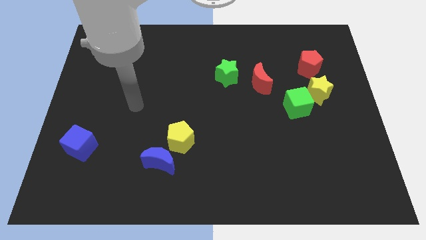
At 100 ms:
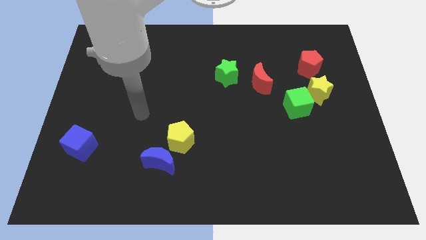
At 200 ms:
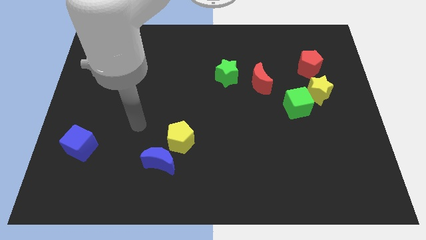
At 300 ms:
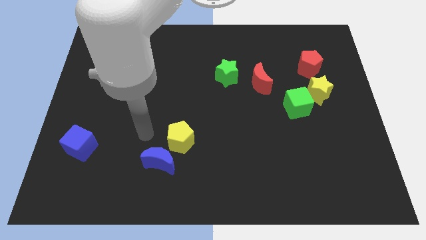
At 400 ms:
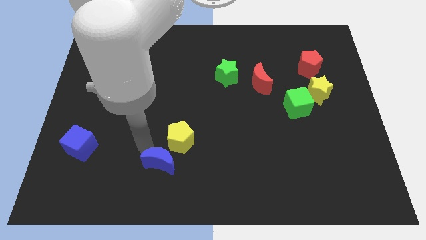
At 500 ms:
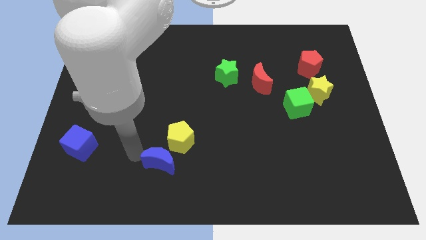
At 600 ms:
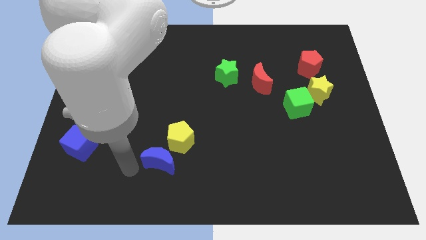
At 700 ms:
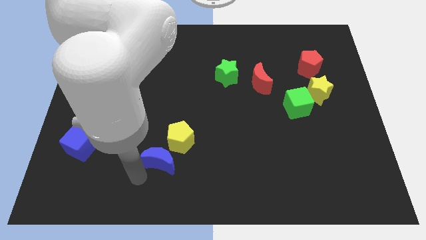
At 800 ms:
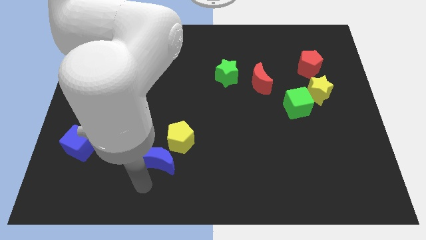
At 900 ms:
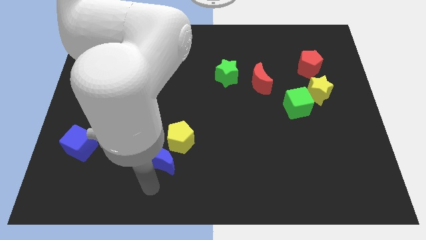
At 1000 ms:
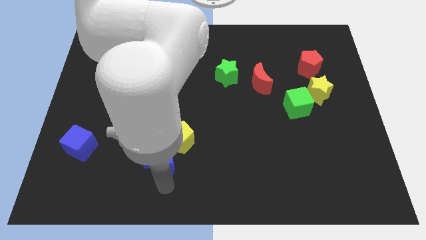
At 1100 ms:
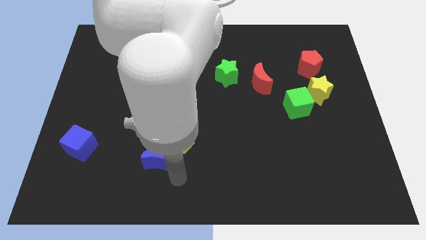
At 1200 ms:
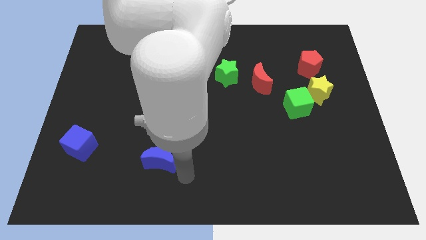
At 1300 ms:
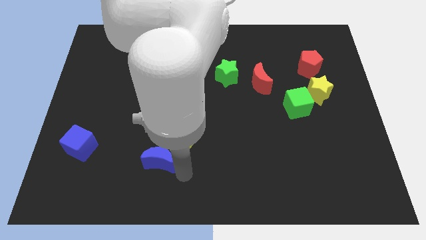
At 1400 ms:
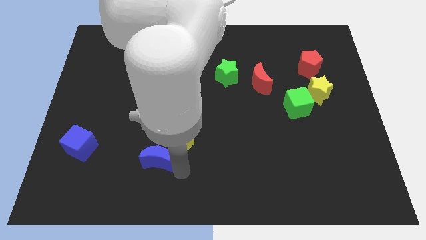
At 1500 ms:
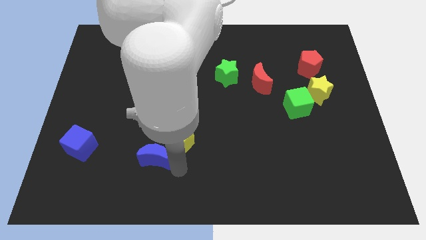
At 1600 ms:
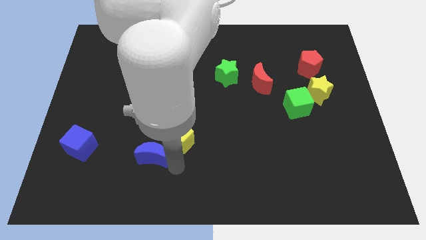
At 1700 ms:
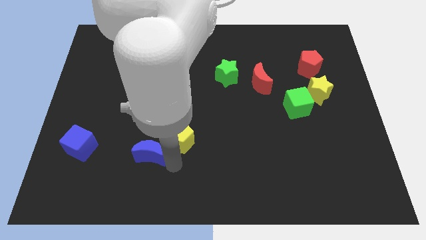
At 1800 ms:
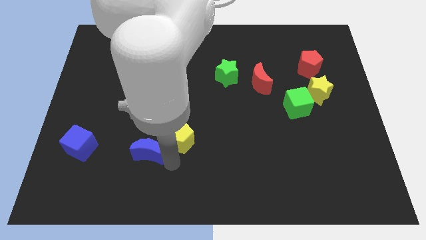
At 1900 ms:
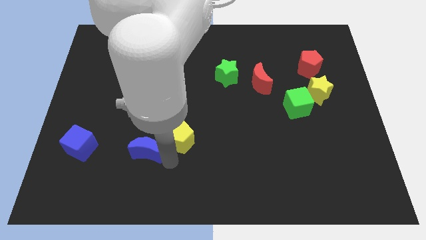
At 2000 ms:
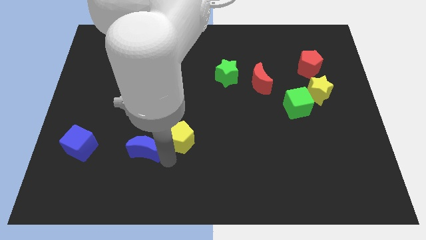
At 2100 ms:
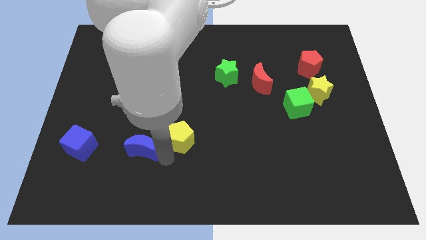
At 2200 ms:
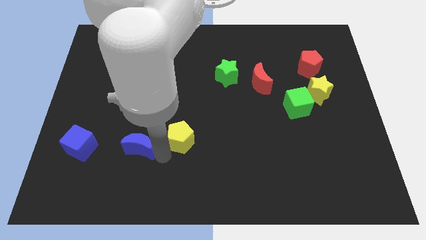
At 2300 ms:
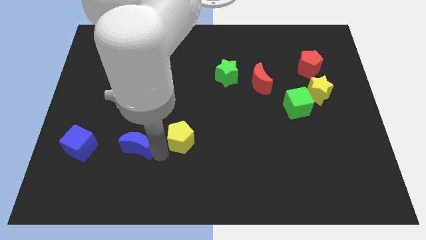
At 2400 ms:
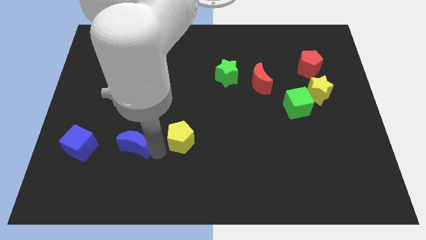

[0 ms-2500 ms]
slide the blue moon a little bit up and to the left

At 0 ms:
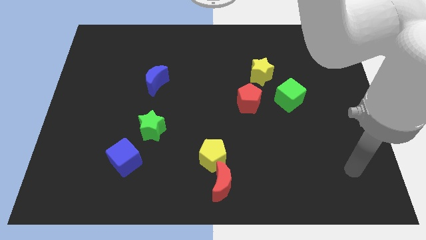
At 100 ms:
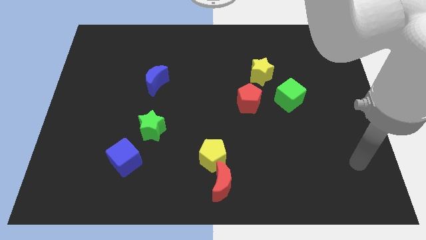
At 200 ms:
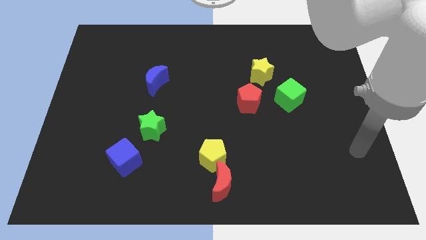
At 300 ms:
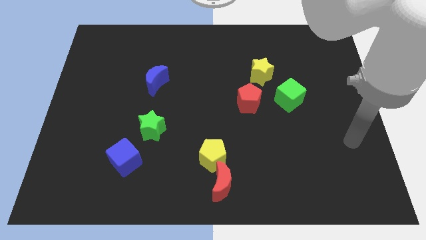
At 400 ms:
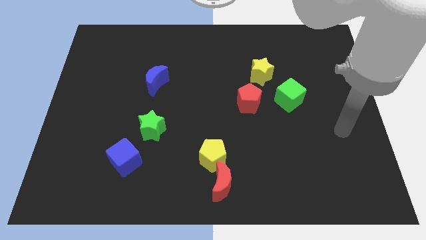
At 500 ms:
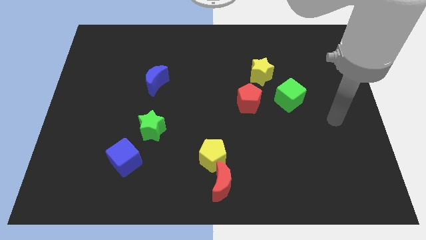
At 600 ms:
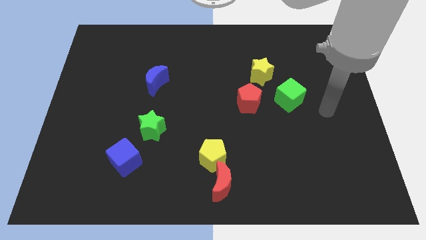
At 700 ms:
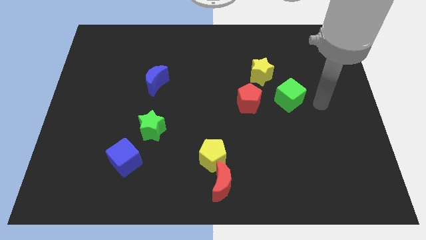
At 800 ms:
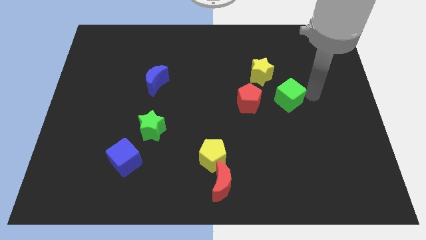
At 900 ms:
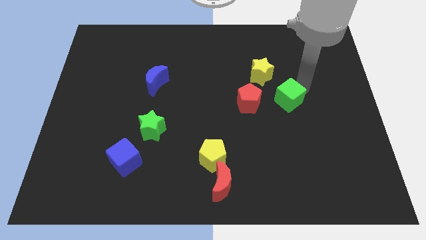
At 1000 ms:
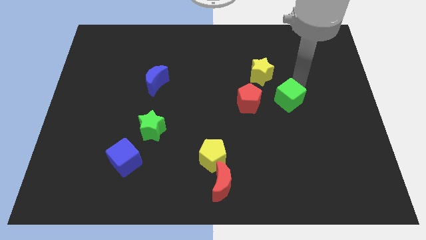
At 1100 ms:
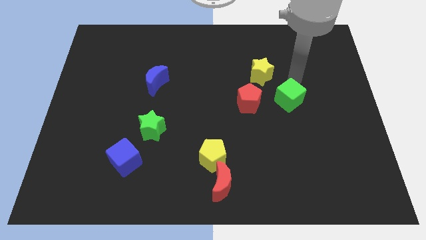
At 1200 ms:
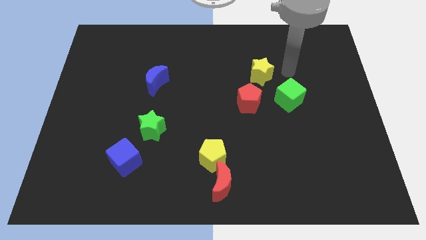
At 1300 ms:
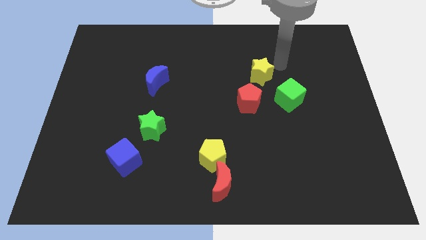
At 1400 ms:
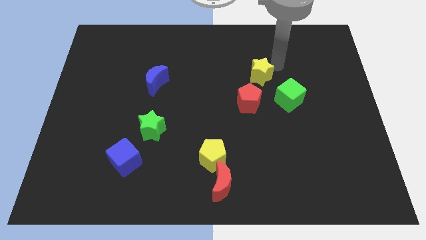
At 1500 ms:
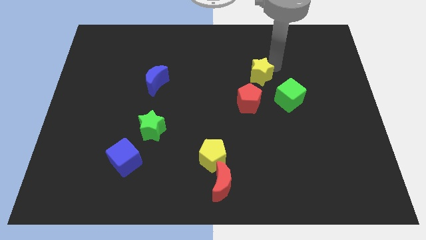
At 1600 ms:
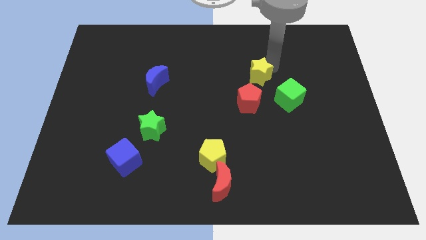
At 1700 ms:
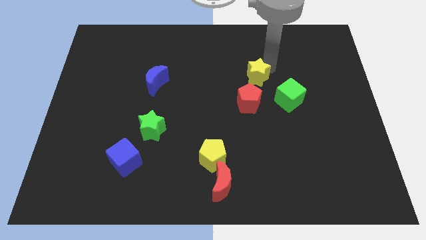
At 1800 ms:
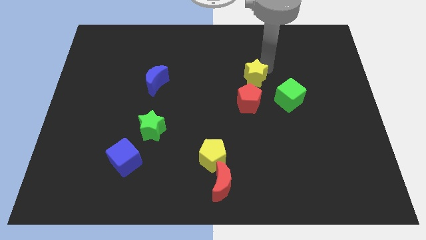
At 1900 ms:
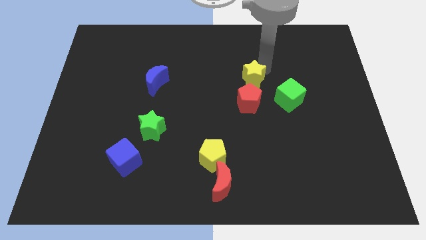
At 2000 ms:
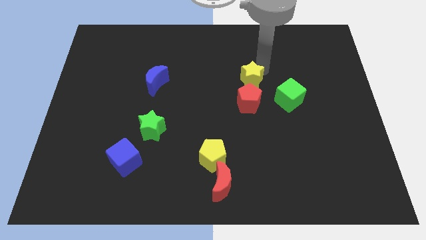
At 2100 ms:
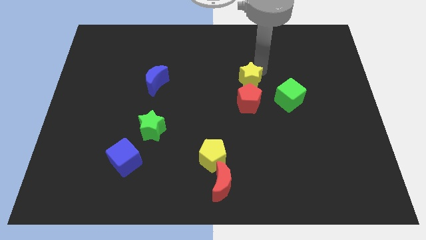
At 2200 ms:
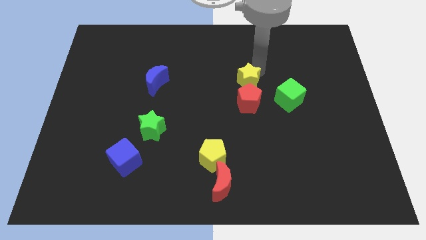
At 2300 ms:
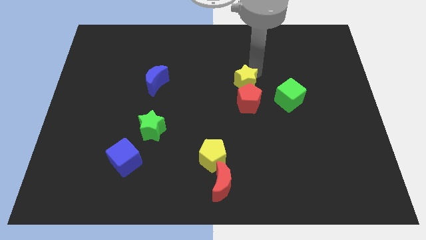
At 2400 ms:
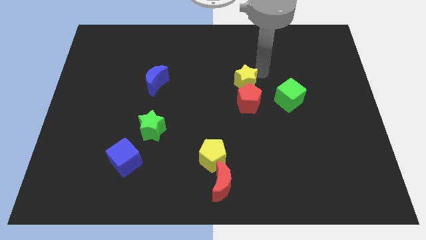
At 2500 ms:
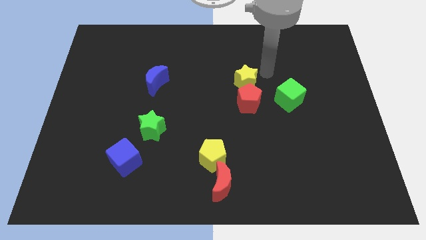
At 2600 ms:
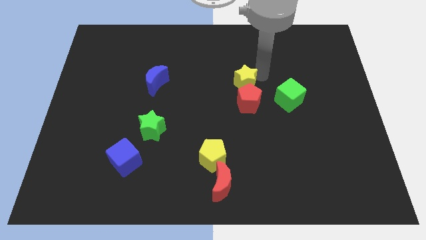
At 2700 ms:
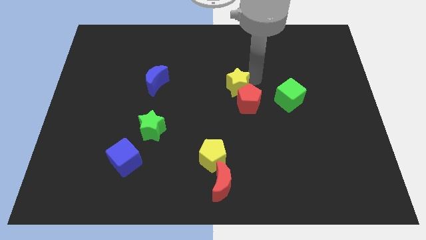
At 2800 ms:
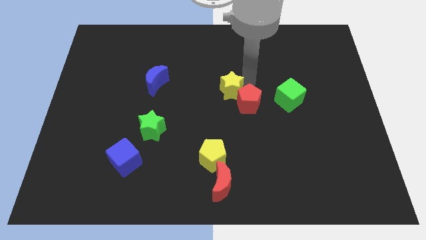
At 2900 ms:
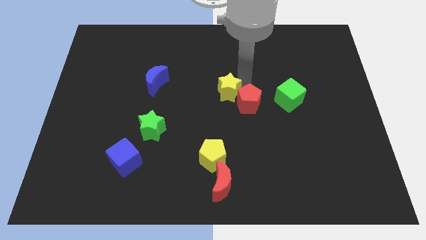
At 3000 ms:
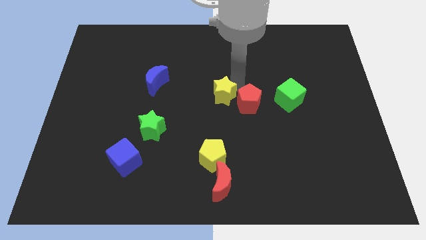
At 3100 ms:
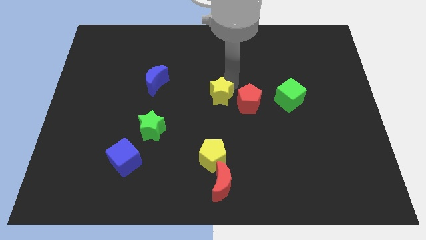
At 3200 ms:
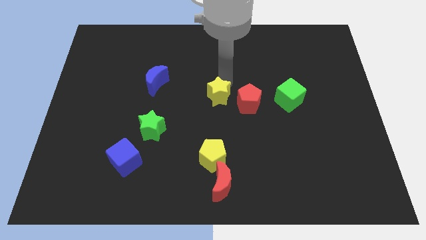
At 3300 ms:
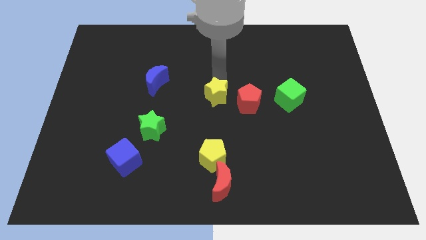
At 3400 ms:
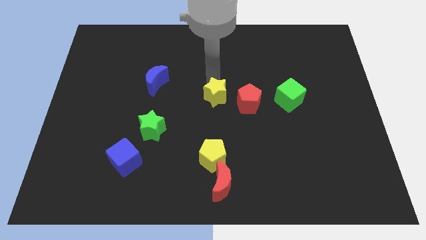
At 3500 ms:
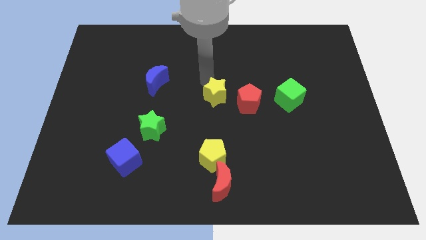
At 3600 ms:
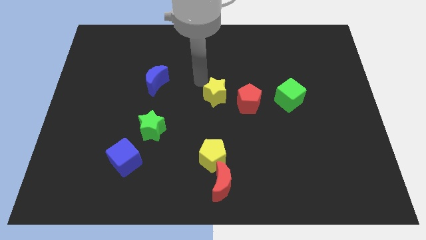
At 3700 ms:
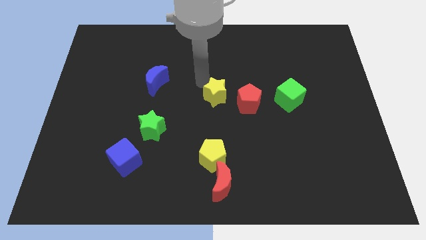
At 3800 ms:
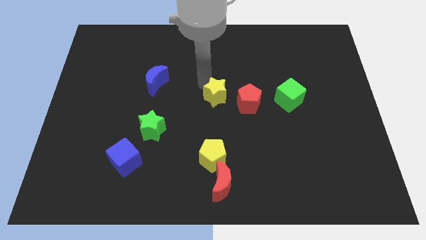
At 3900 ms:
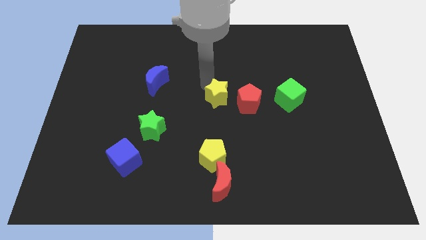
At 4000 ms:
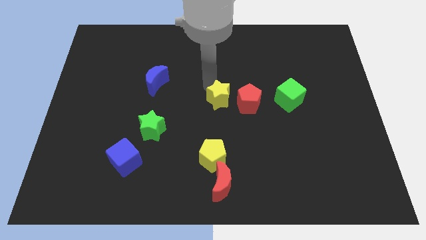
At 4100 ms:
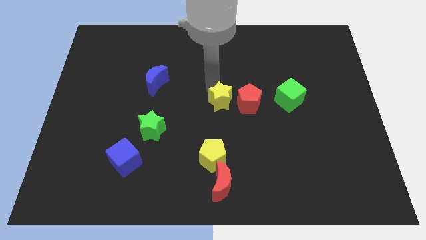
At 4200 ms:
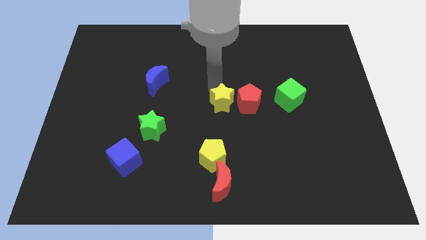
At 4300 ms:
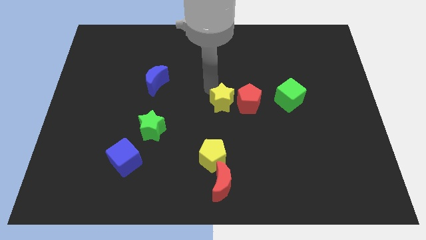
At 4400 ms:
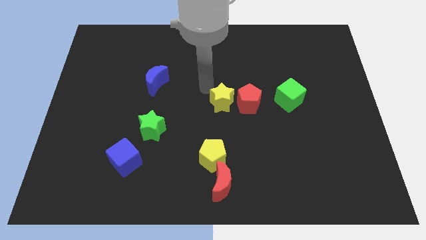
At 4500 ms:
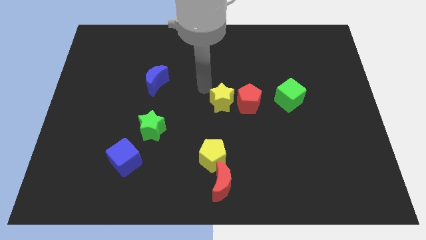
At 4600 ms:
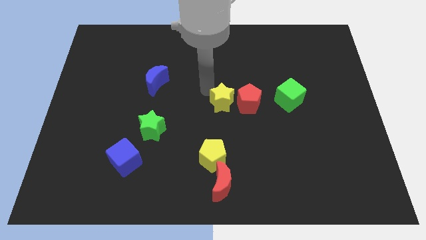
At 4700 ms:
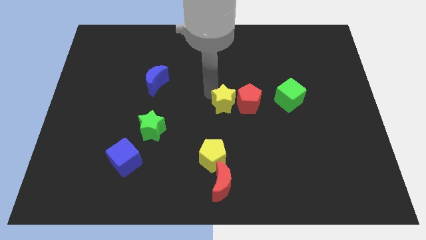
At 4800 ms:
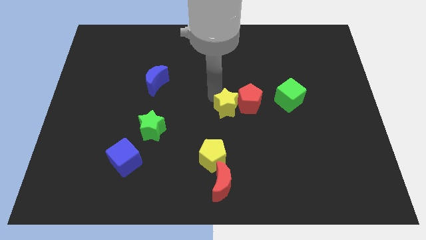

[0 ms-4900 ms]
slightly slide the yellow star downwards

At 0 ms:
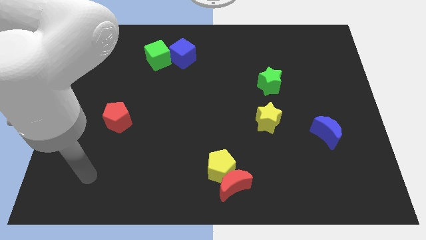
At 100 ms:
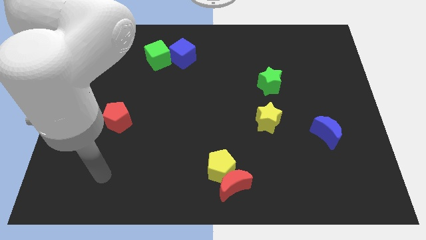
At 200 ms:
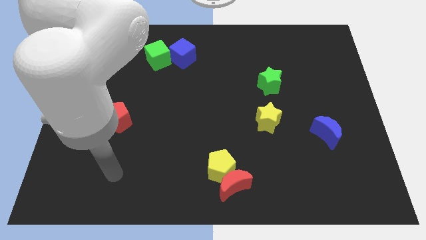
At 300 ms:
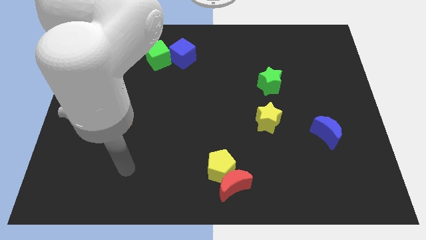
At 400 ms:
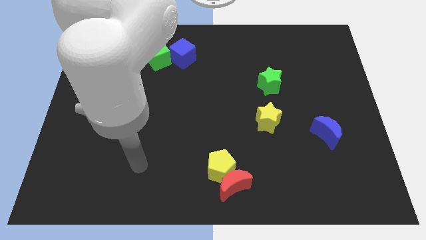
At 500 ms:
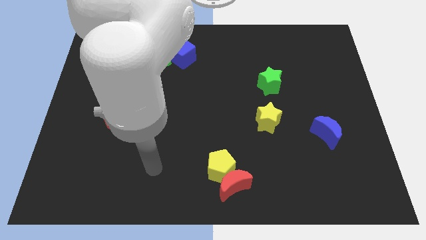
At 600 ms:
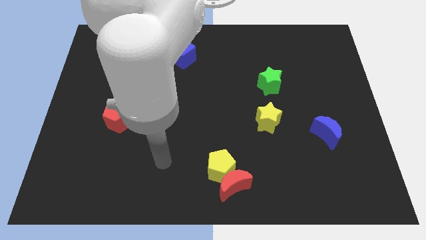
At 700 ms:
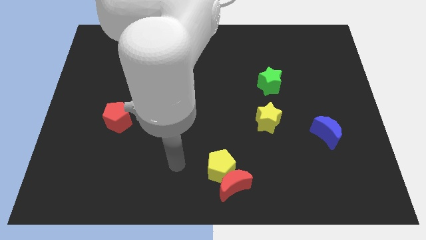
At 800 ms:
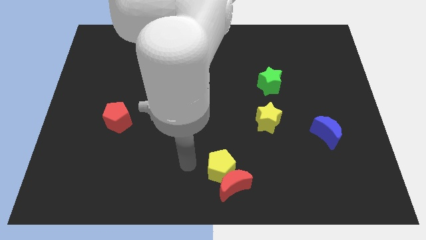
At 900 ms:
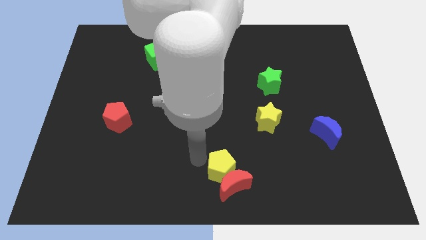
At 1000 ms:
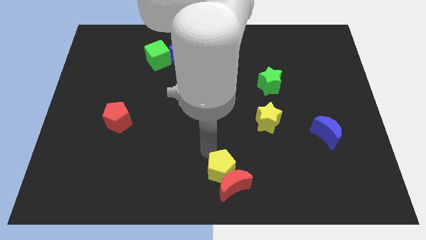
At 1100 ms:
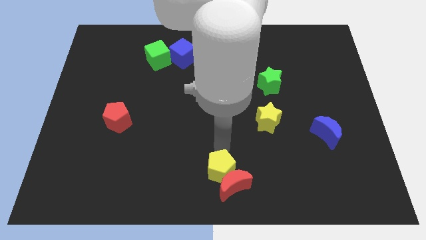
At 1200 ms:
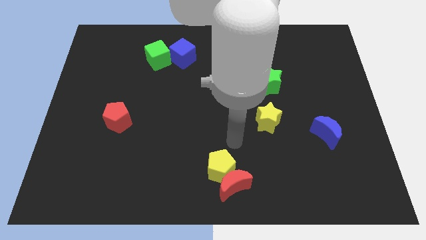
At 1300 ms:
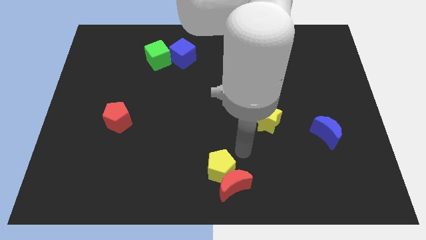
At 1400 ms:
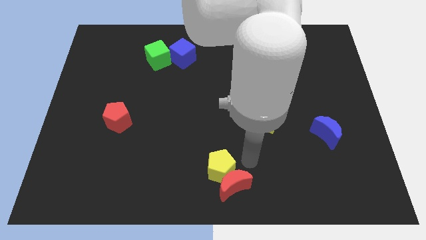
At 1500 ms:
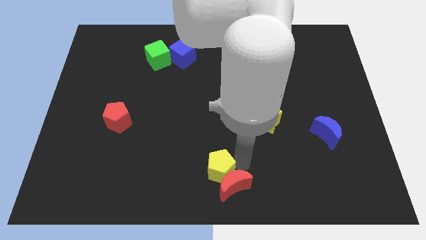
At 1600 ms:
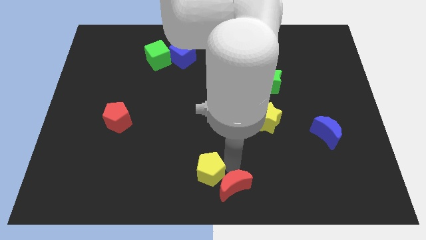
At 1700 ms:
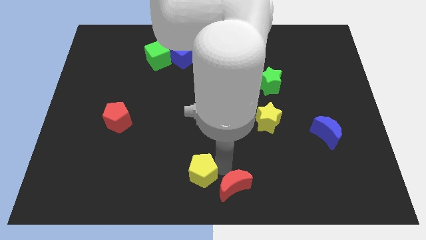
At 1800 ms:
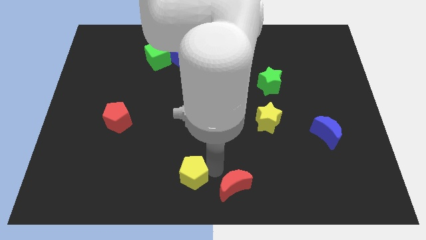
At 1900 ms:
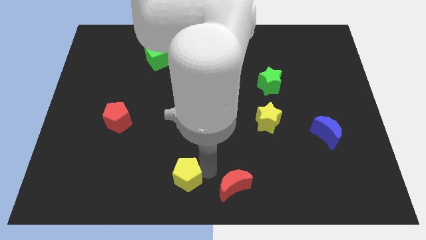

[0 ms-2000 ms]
slightly slide the yellow pentagon to the left
